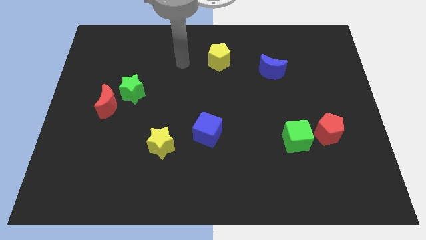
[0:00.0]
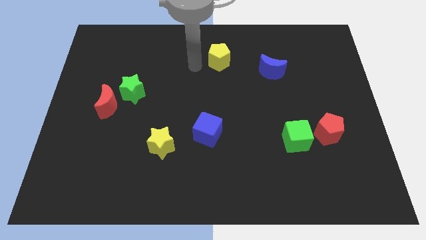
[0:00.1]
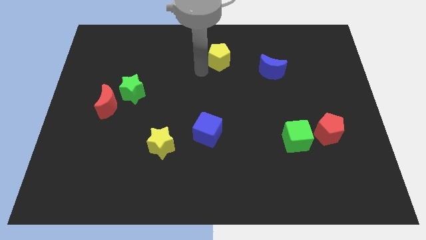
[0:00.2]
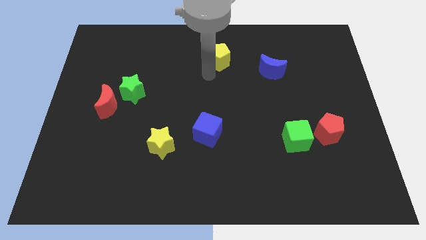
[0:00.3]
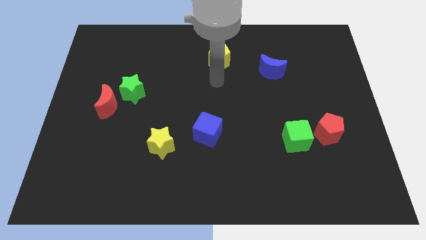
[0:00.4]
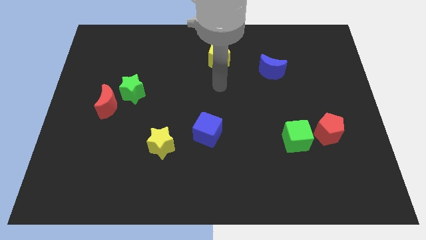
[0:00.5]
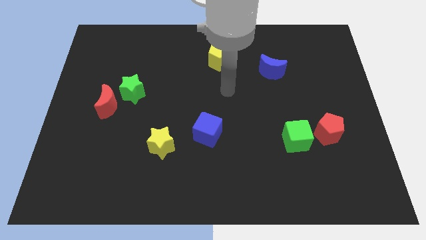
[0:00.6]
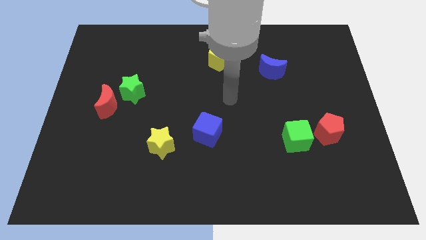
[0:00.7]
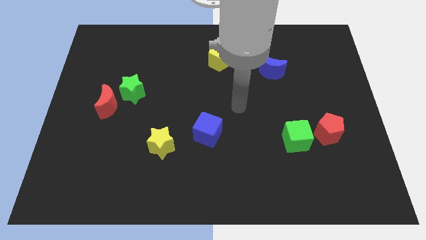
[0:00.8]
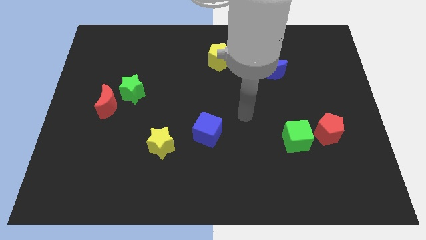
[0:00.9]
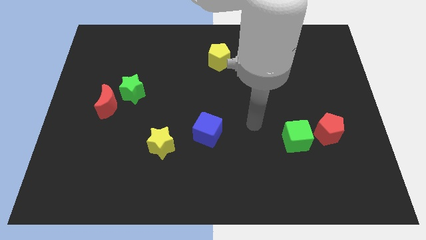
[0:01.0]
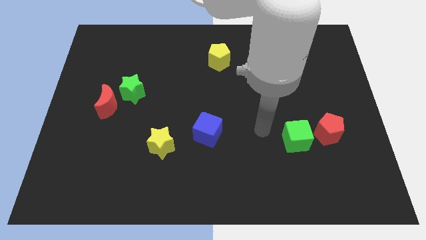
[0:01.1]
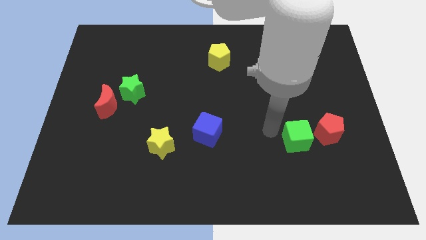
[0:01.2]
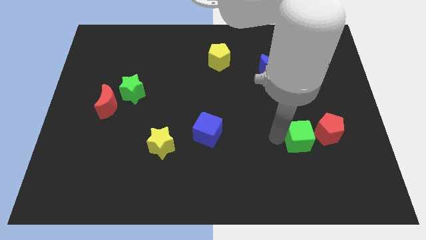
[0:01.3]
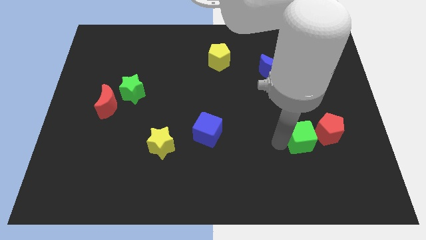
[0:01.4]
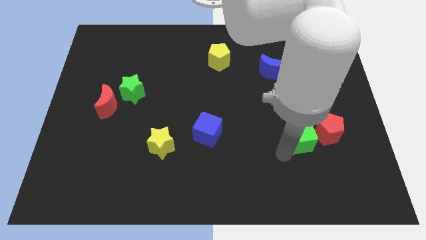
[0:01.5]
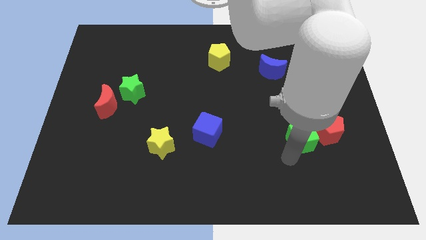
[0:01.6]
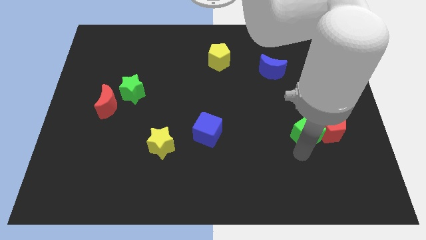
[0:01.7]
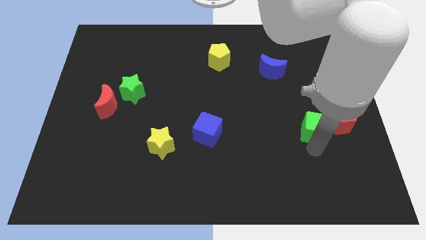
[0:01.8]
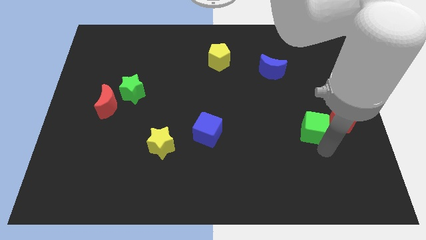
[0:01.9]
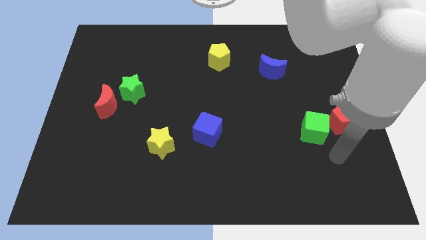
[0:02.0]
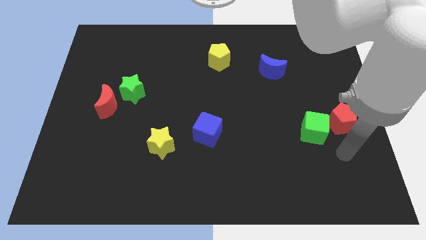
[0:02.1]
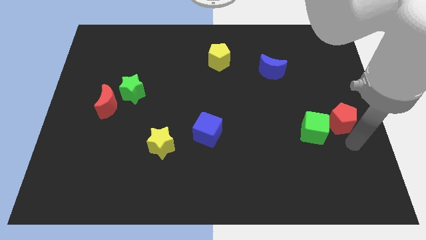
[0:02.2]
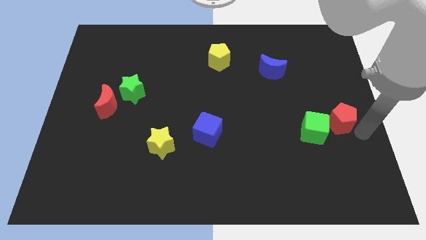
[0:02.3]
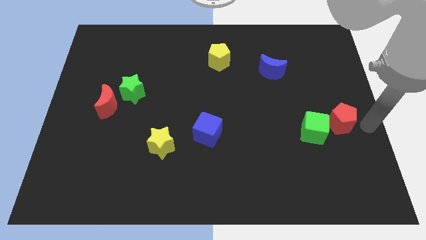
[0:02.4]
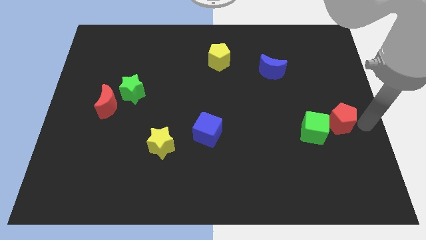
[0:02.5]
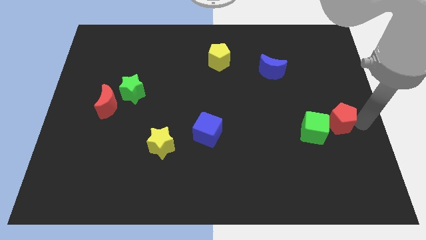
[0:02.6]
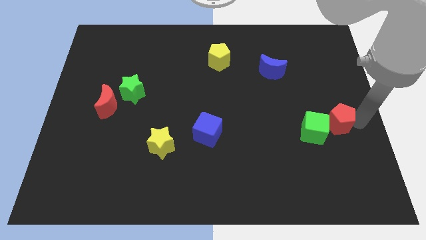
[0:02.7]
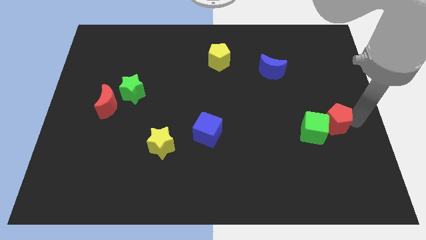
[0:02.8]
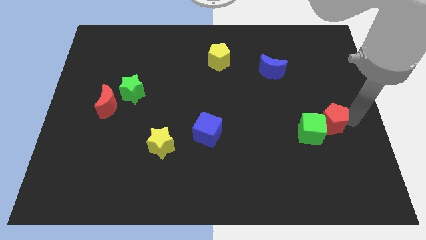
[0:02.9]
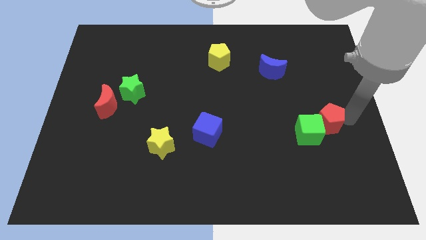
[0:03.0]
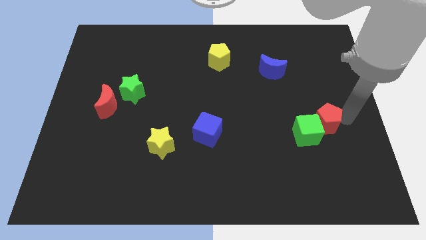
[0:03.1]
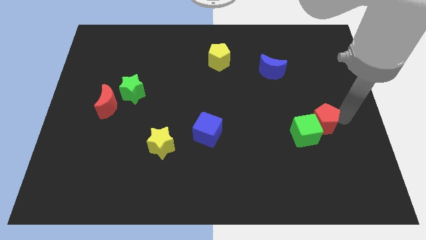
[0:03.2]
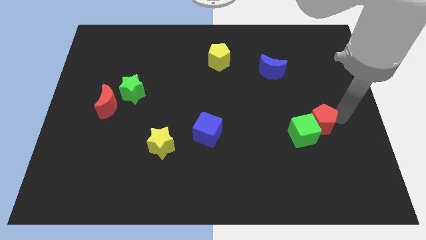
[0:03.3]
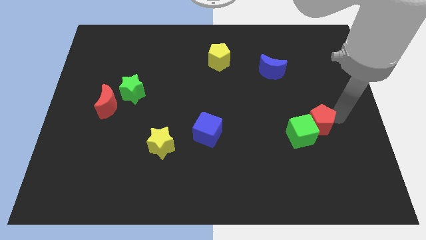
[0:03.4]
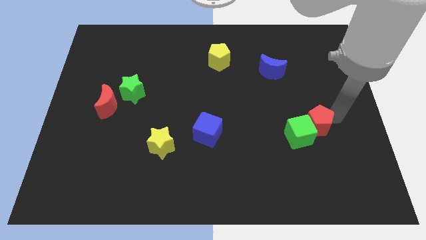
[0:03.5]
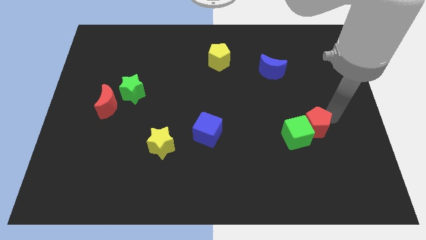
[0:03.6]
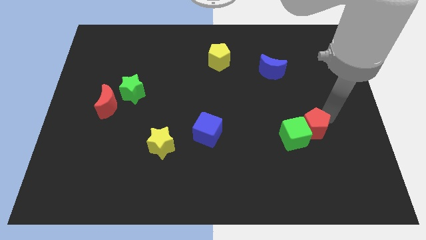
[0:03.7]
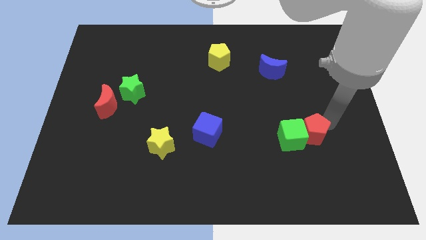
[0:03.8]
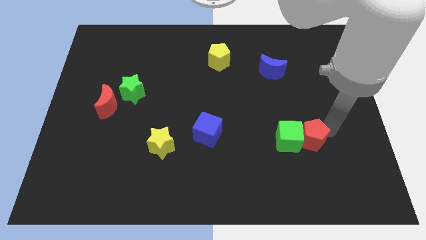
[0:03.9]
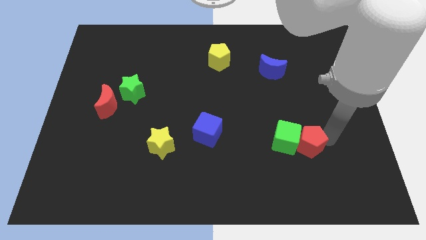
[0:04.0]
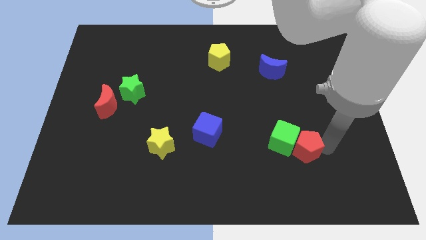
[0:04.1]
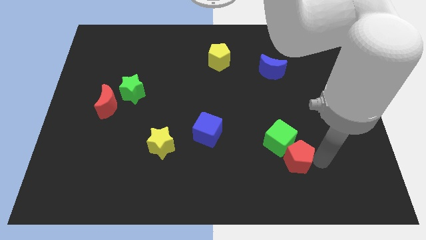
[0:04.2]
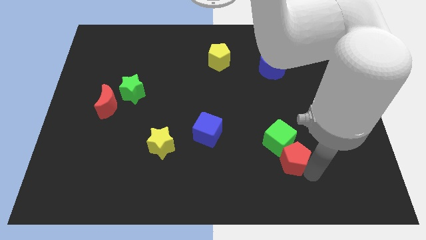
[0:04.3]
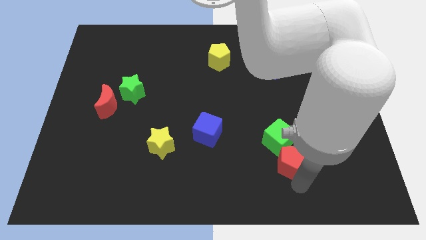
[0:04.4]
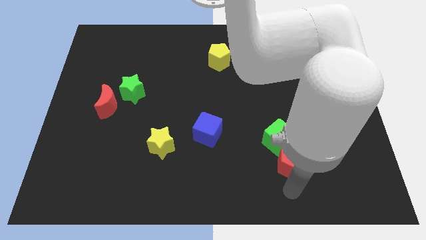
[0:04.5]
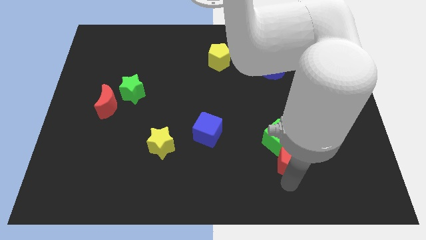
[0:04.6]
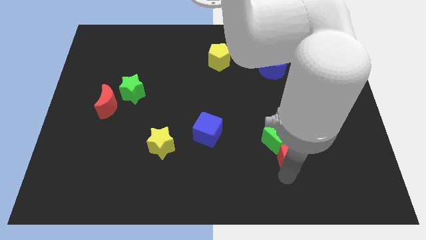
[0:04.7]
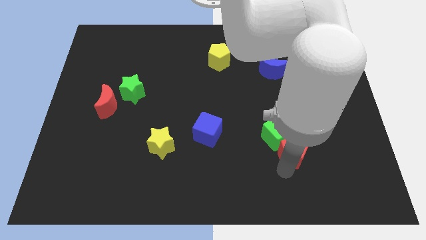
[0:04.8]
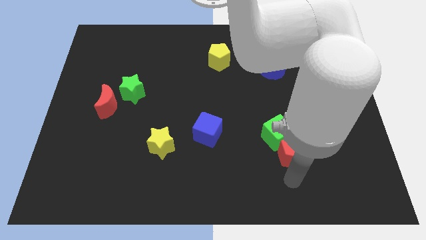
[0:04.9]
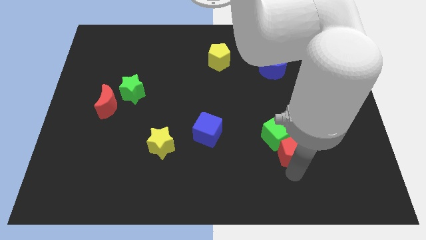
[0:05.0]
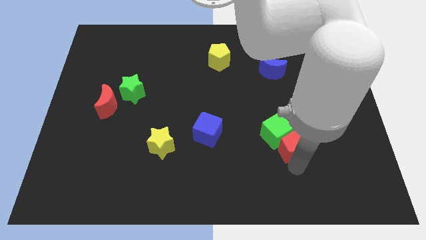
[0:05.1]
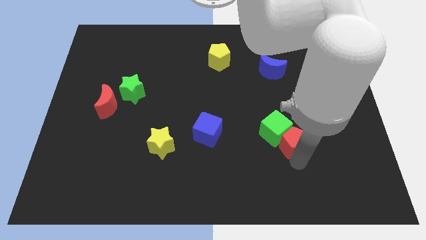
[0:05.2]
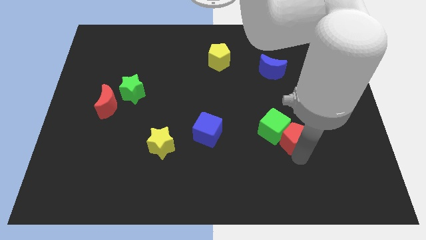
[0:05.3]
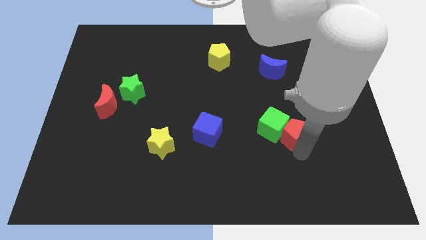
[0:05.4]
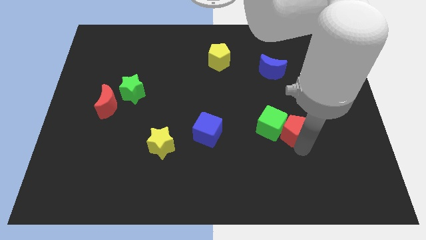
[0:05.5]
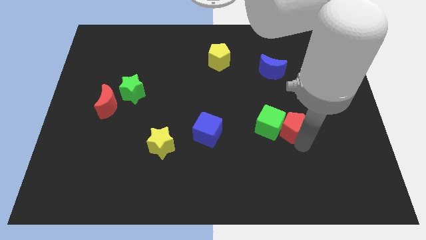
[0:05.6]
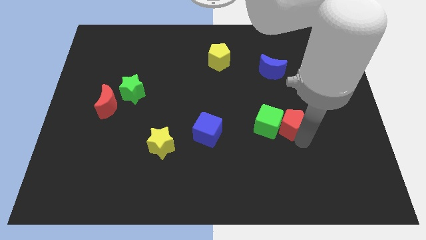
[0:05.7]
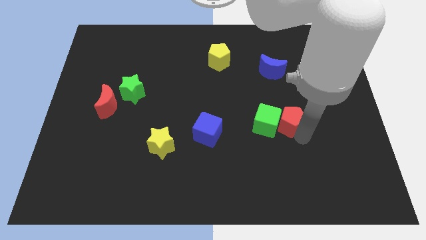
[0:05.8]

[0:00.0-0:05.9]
push the red pentagon up and then left slightly

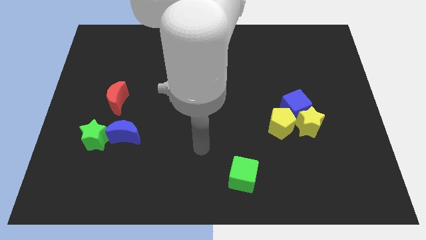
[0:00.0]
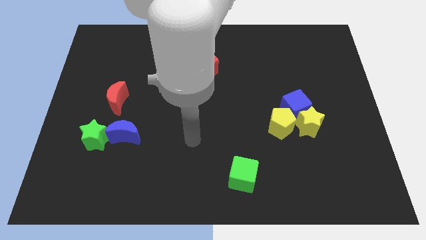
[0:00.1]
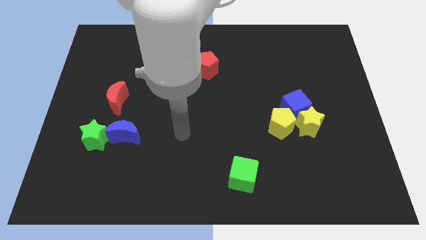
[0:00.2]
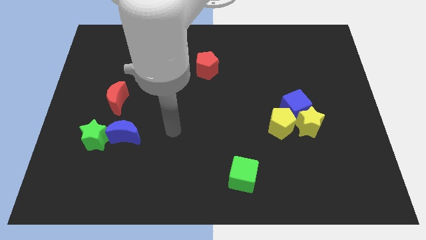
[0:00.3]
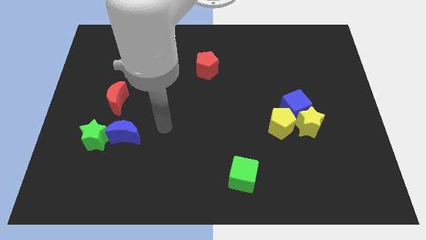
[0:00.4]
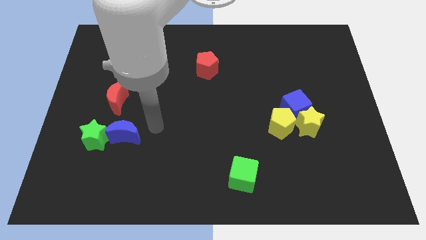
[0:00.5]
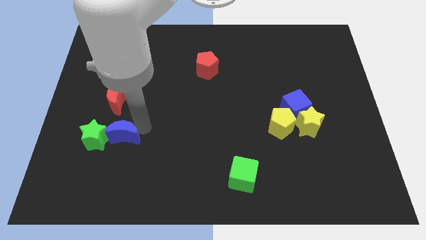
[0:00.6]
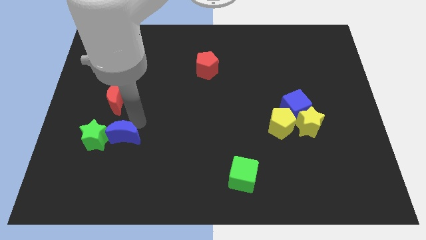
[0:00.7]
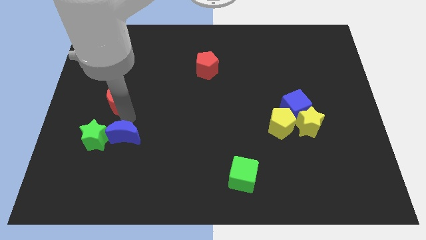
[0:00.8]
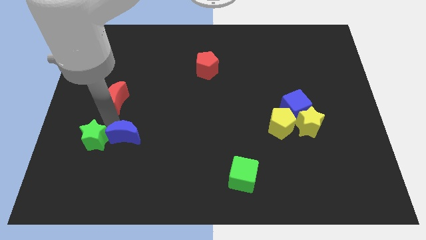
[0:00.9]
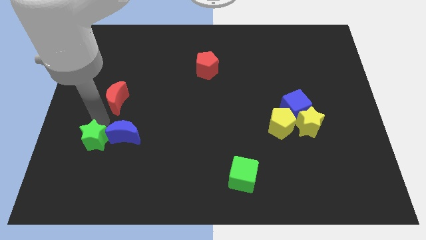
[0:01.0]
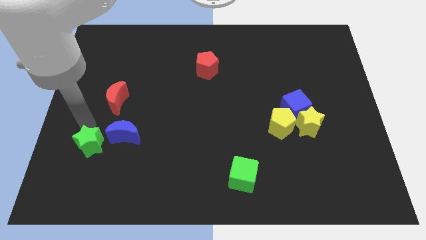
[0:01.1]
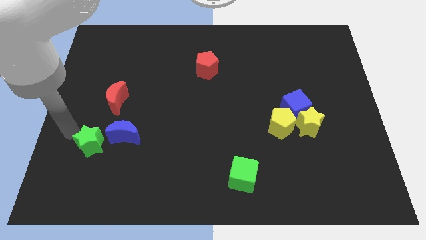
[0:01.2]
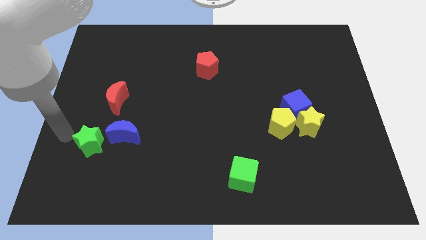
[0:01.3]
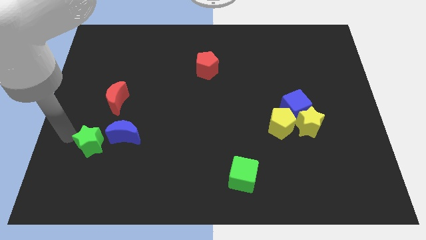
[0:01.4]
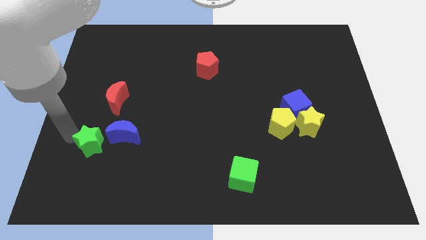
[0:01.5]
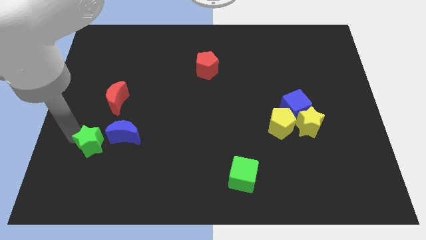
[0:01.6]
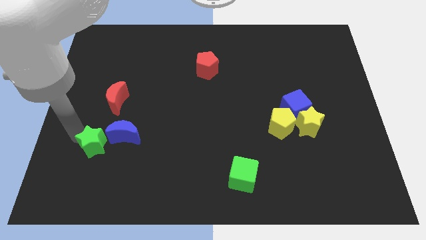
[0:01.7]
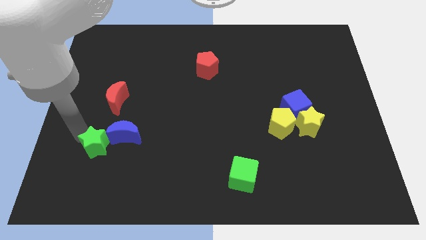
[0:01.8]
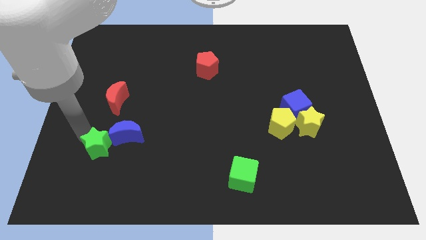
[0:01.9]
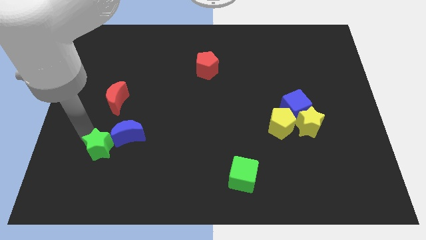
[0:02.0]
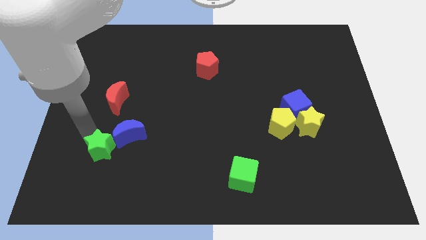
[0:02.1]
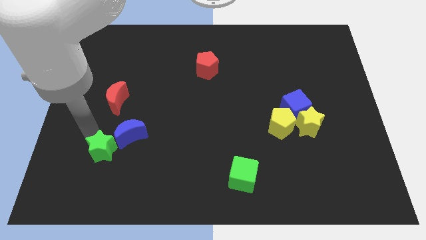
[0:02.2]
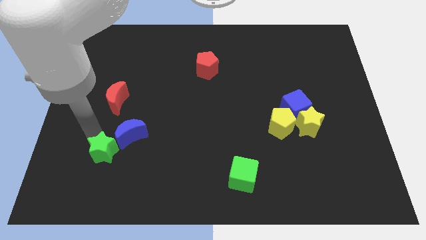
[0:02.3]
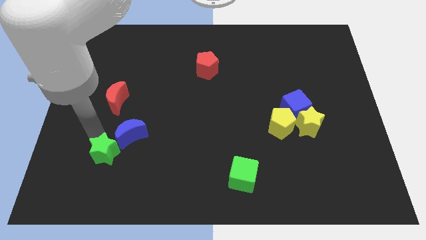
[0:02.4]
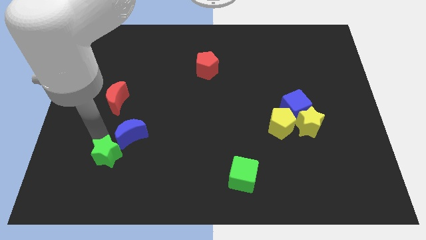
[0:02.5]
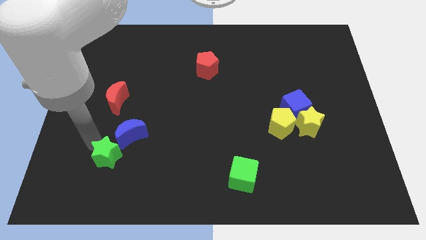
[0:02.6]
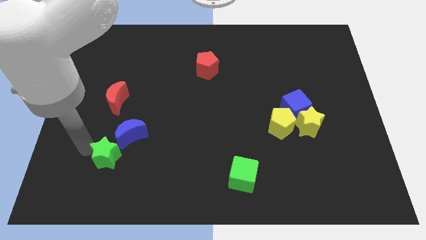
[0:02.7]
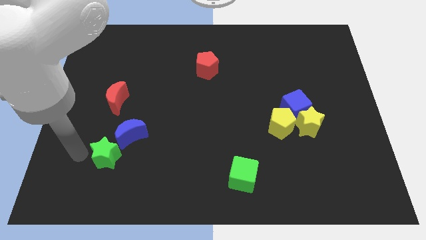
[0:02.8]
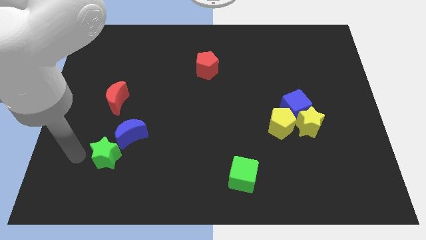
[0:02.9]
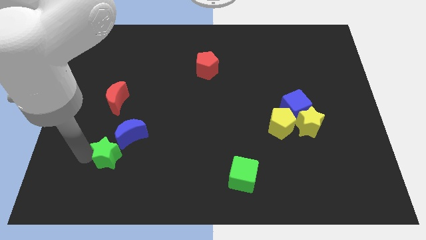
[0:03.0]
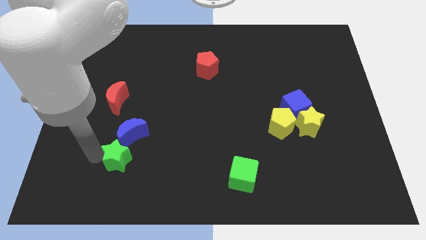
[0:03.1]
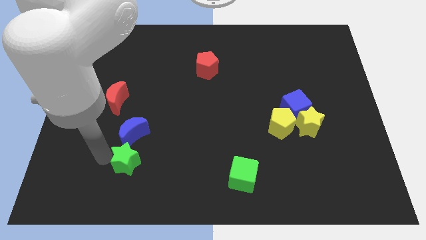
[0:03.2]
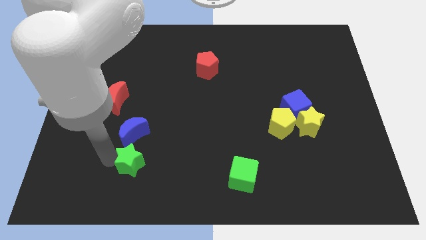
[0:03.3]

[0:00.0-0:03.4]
move the green star right a little bit
